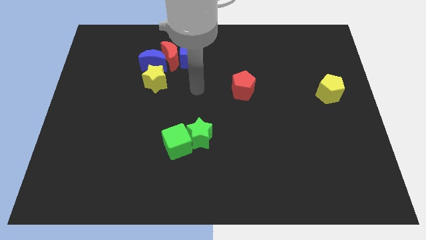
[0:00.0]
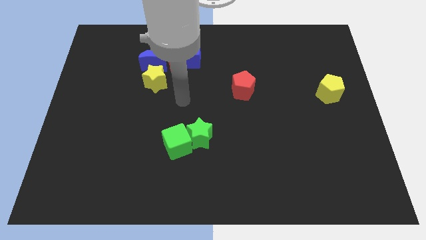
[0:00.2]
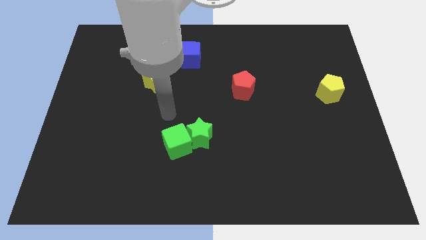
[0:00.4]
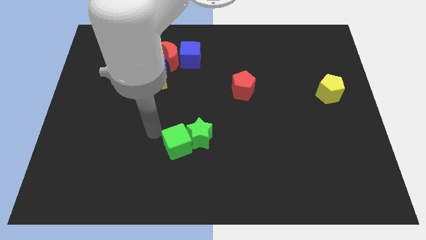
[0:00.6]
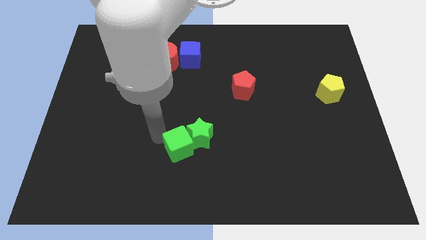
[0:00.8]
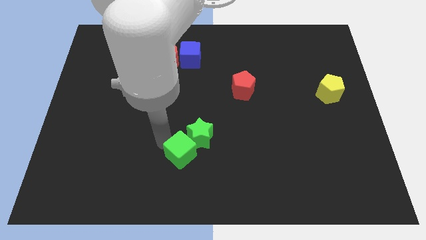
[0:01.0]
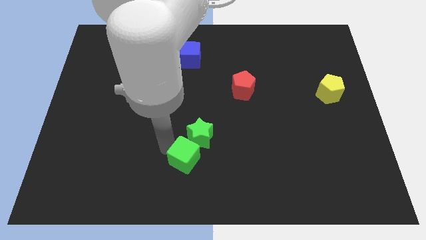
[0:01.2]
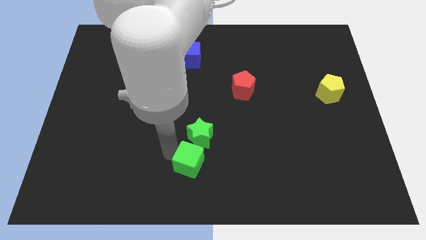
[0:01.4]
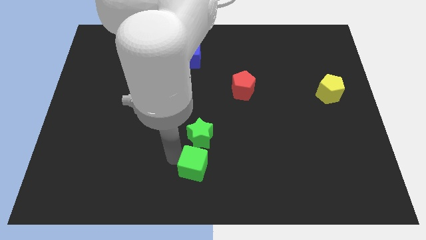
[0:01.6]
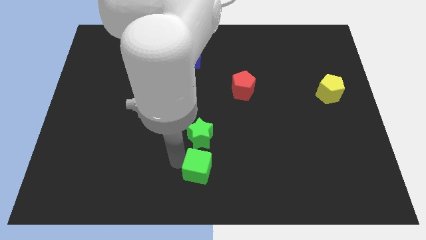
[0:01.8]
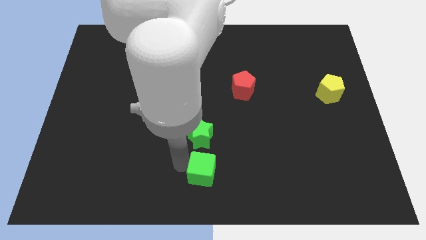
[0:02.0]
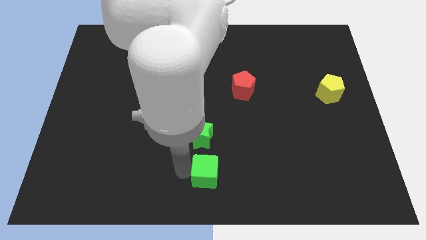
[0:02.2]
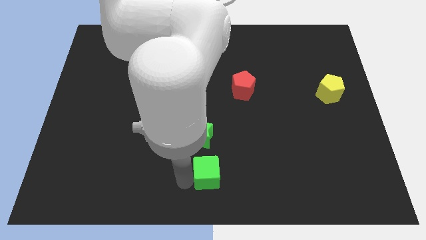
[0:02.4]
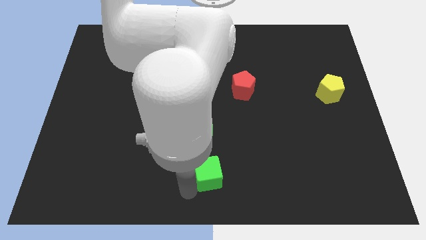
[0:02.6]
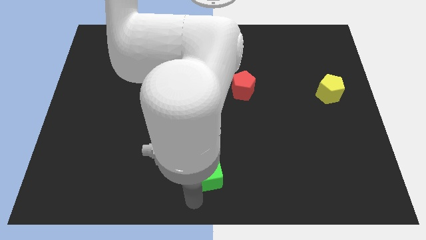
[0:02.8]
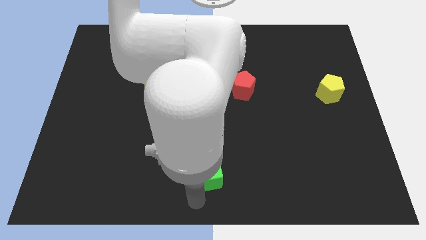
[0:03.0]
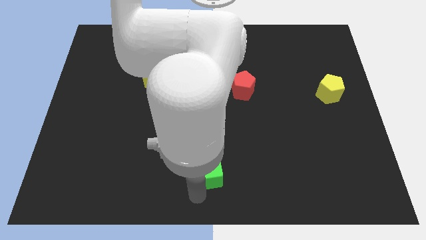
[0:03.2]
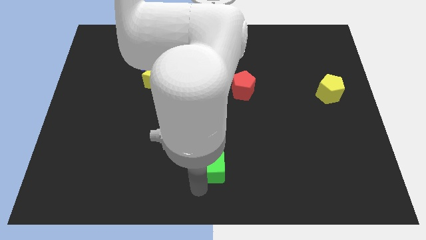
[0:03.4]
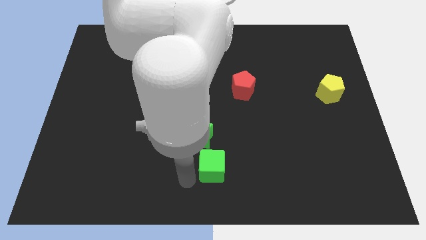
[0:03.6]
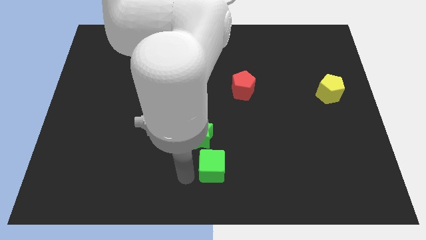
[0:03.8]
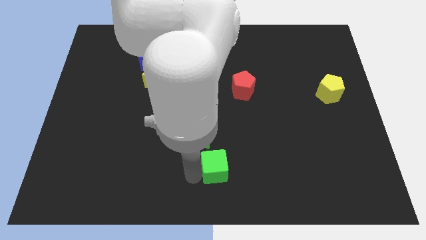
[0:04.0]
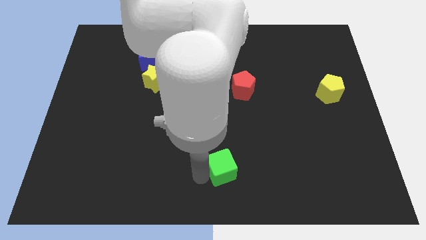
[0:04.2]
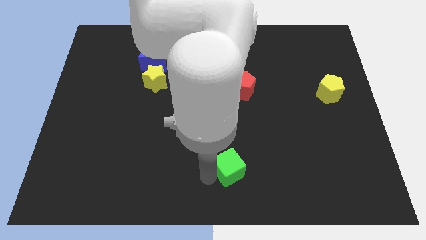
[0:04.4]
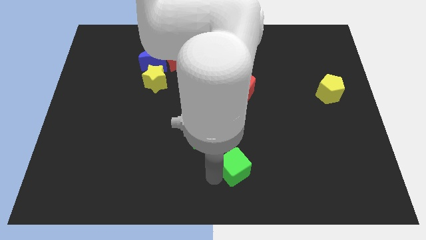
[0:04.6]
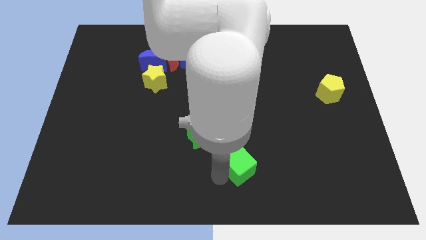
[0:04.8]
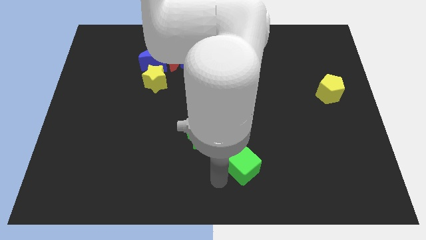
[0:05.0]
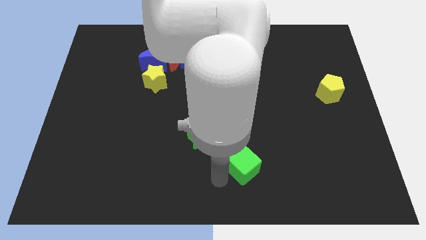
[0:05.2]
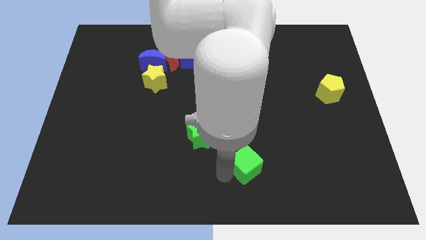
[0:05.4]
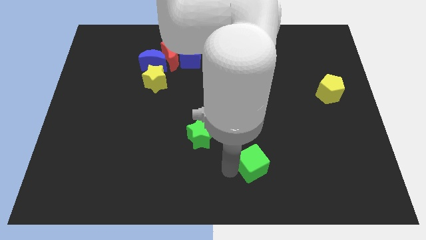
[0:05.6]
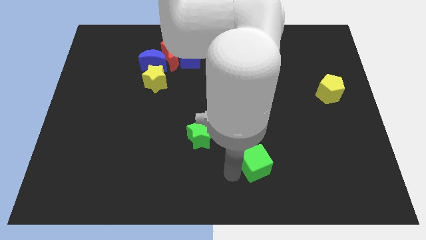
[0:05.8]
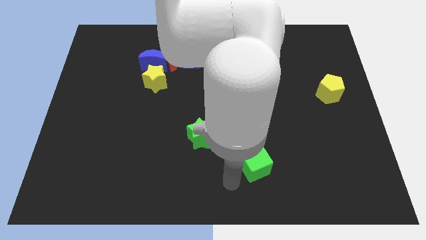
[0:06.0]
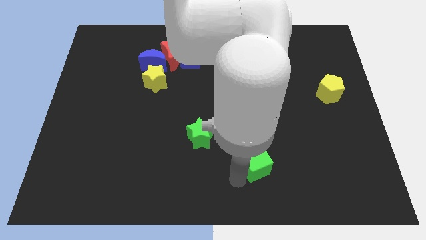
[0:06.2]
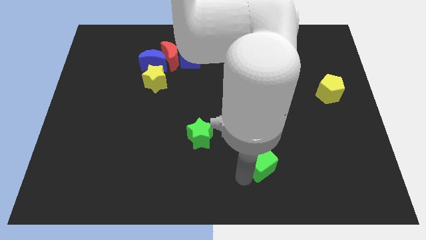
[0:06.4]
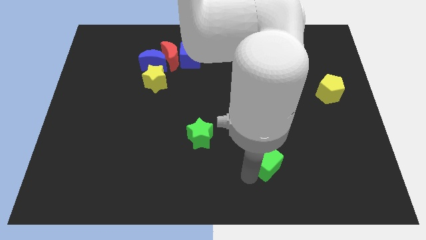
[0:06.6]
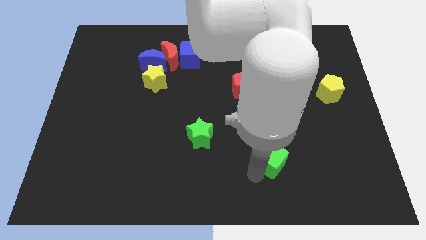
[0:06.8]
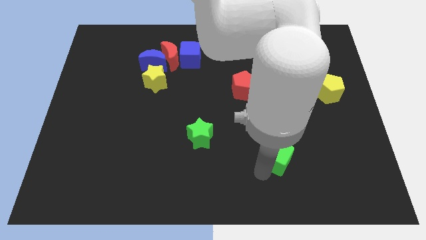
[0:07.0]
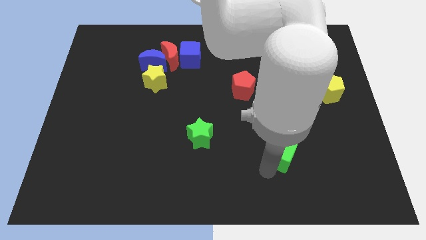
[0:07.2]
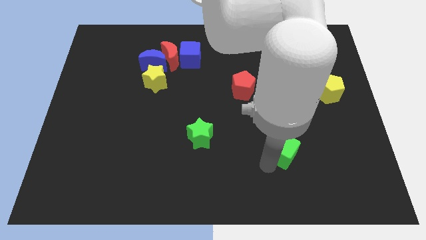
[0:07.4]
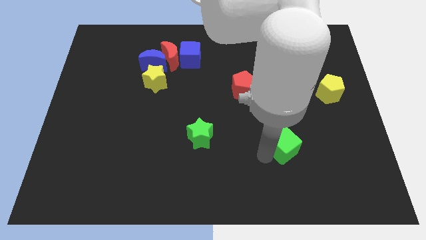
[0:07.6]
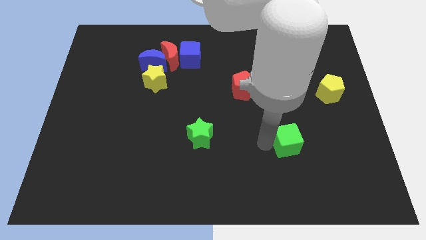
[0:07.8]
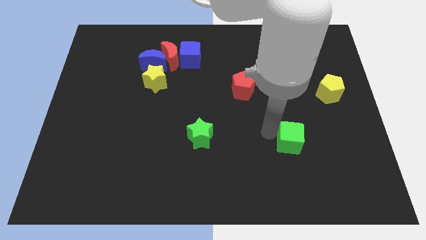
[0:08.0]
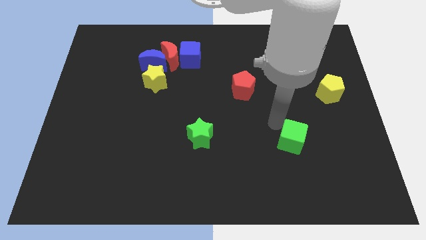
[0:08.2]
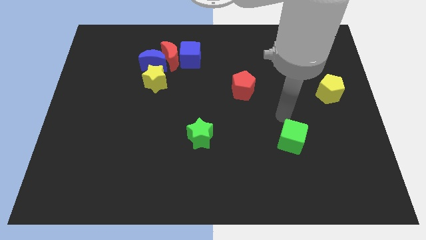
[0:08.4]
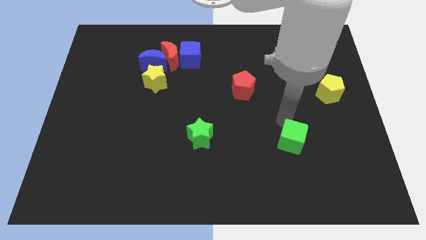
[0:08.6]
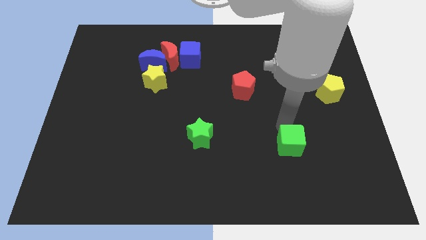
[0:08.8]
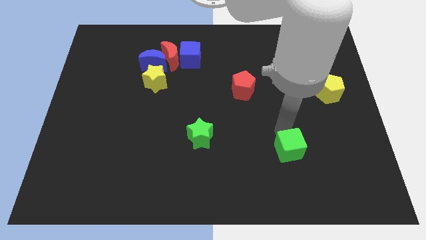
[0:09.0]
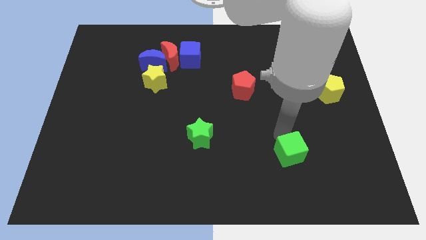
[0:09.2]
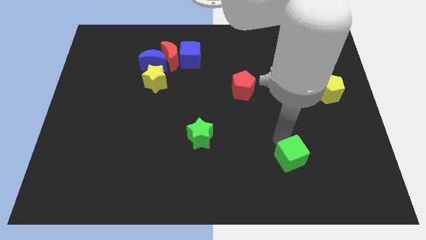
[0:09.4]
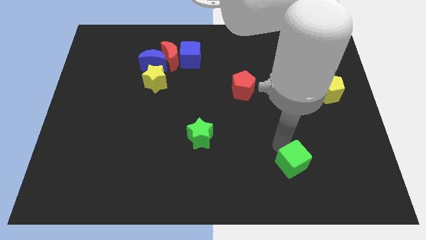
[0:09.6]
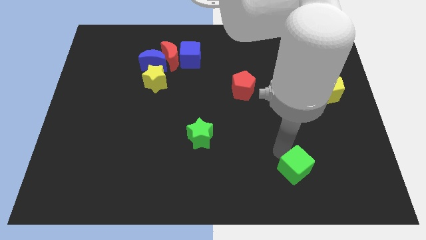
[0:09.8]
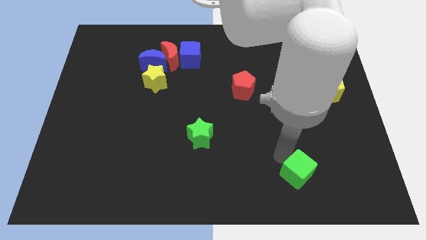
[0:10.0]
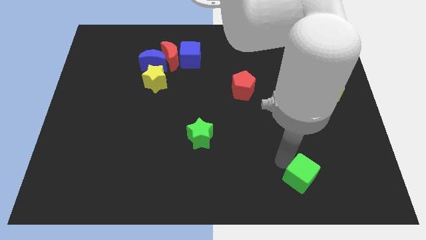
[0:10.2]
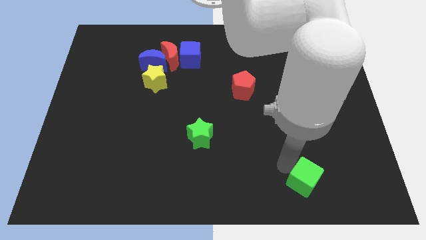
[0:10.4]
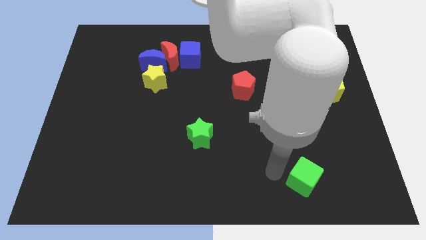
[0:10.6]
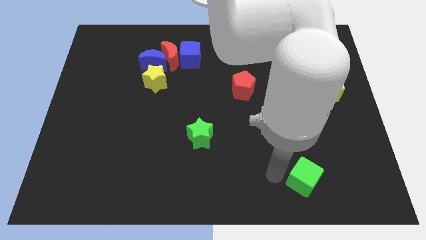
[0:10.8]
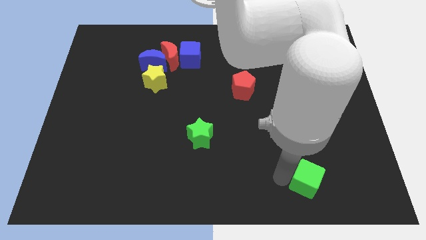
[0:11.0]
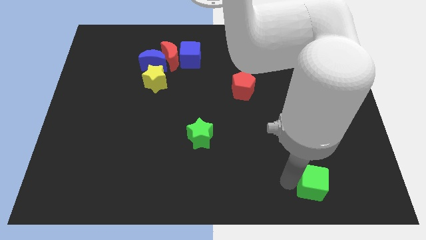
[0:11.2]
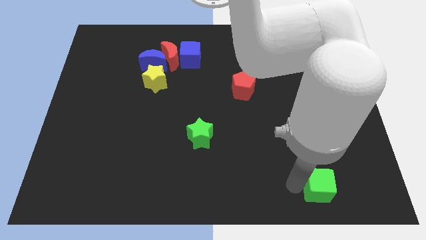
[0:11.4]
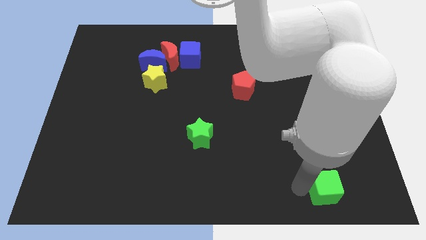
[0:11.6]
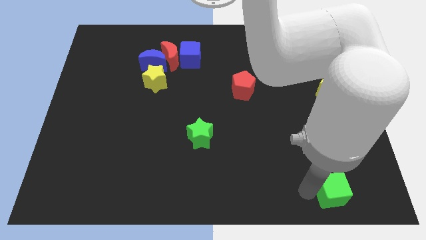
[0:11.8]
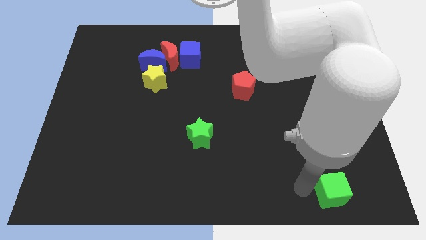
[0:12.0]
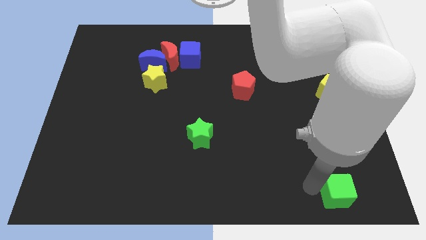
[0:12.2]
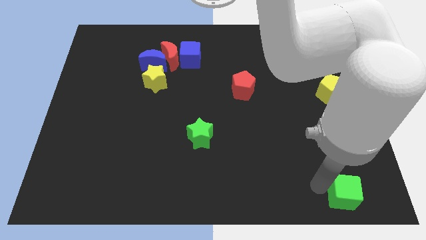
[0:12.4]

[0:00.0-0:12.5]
put the green cube to the bottom right of the board
